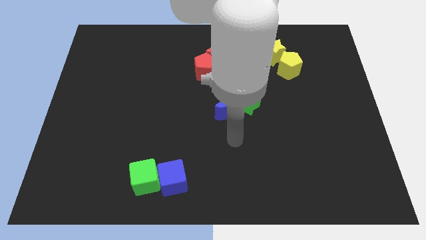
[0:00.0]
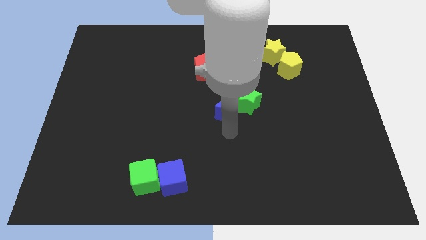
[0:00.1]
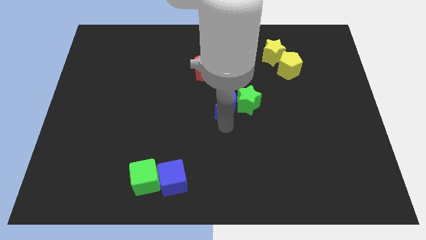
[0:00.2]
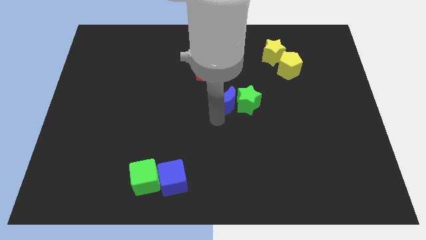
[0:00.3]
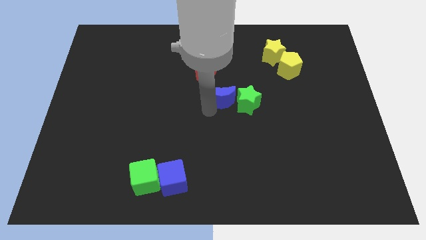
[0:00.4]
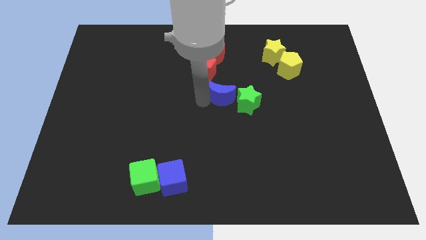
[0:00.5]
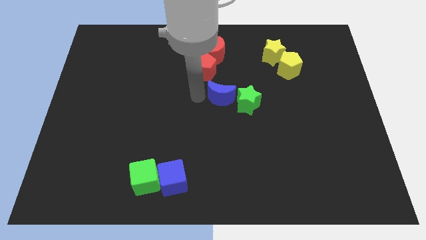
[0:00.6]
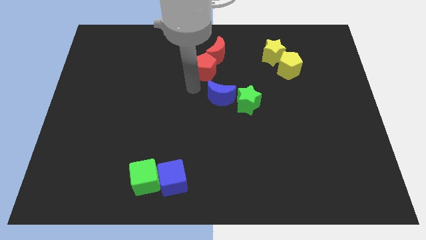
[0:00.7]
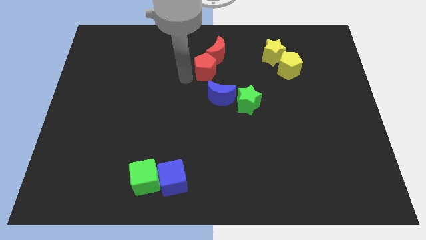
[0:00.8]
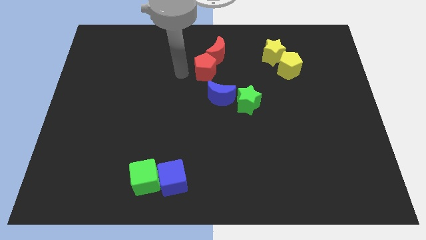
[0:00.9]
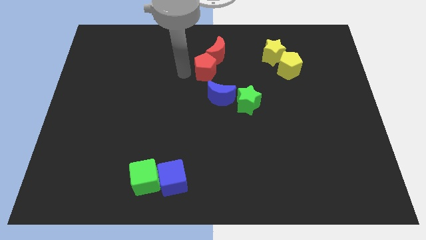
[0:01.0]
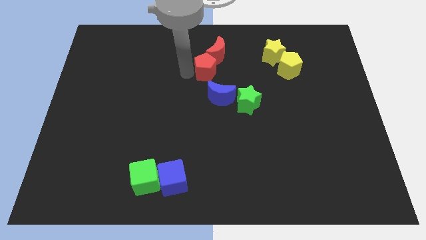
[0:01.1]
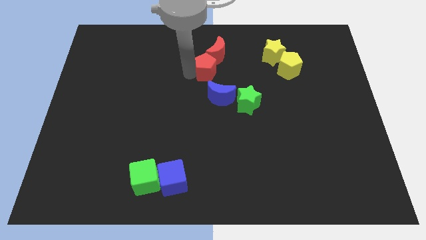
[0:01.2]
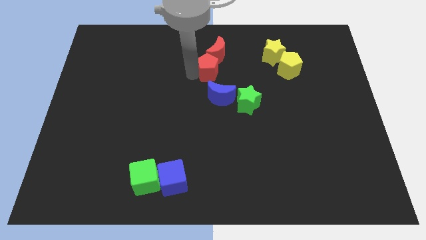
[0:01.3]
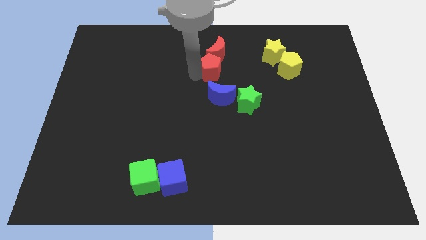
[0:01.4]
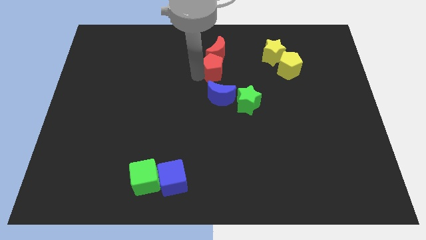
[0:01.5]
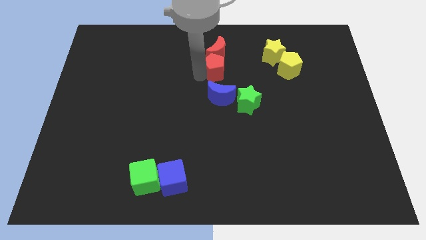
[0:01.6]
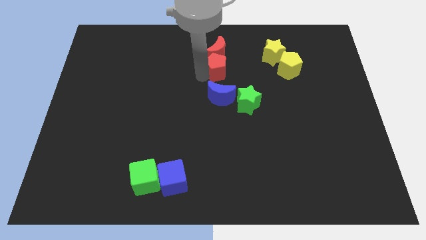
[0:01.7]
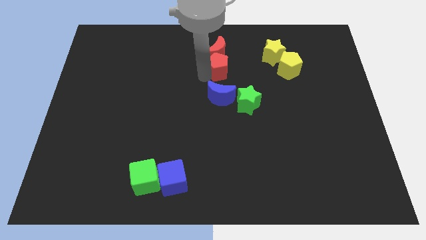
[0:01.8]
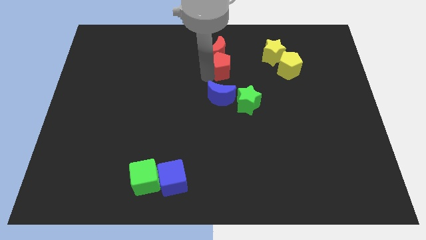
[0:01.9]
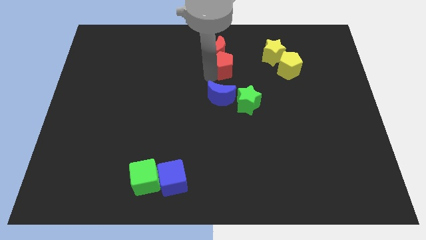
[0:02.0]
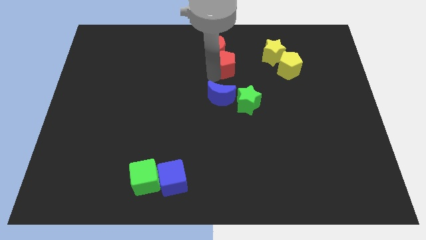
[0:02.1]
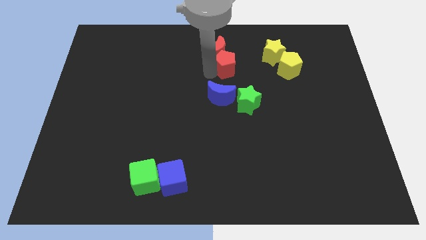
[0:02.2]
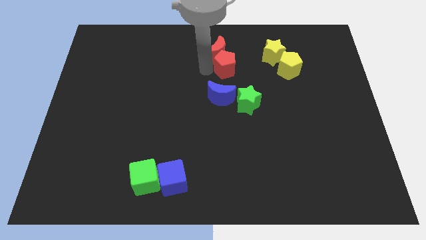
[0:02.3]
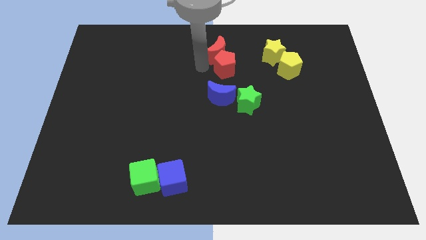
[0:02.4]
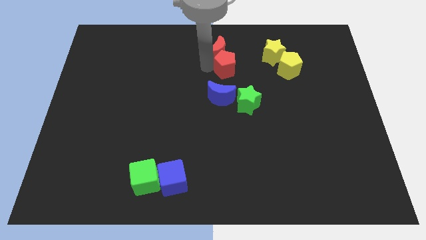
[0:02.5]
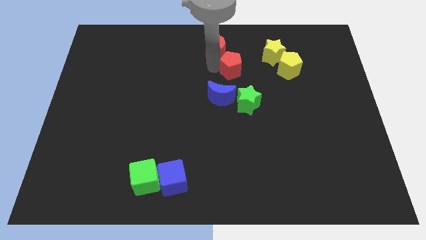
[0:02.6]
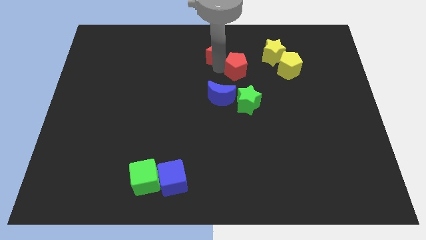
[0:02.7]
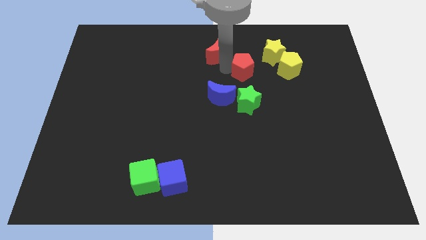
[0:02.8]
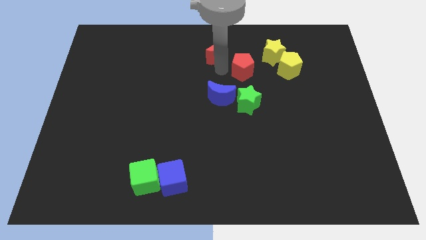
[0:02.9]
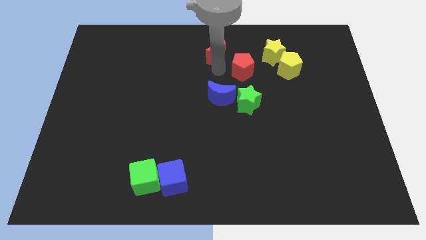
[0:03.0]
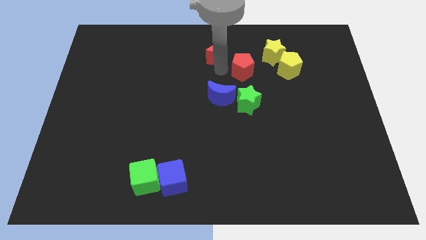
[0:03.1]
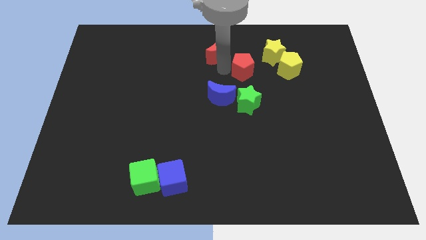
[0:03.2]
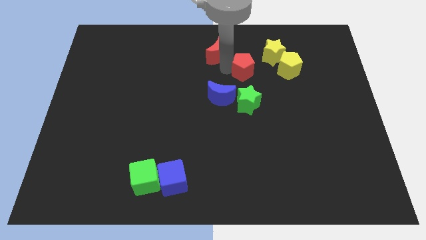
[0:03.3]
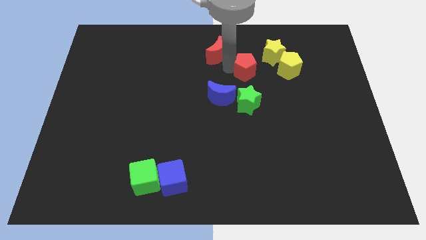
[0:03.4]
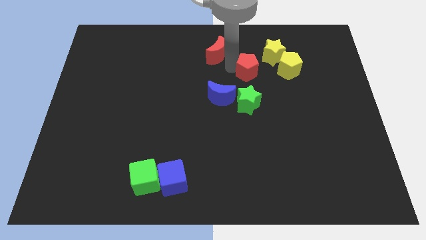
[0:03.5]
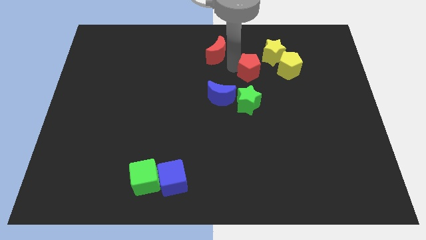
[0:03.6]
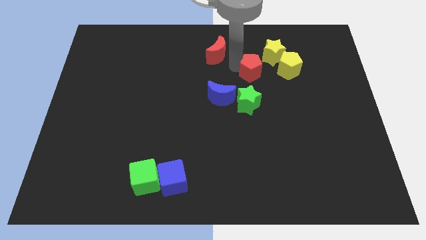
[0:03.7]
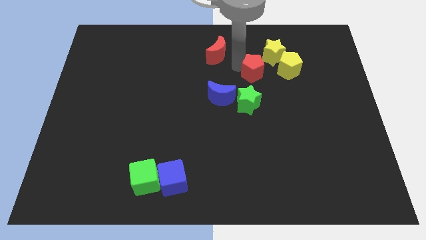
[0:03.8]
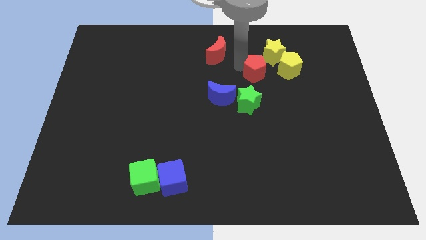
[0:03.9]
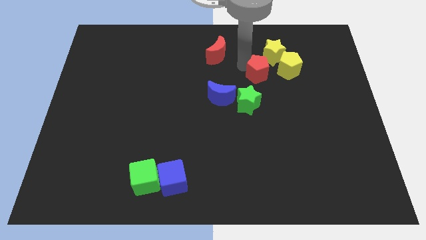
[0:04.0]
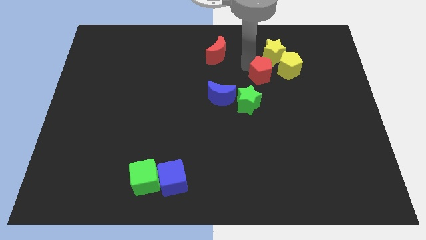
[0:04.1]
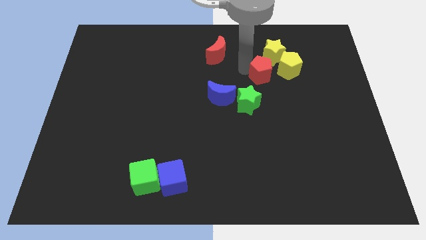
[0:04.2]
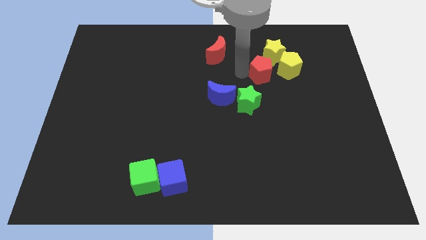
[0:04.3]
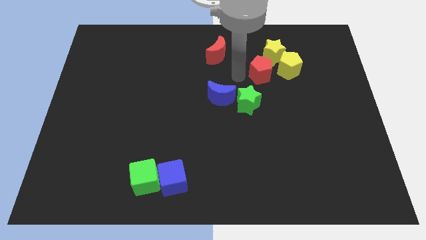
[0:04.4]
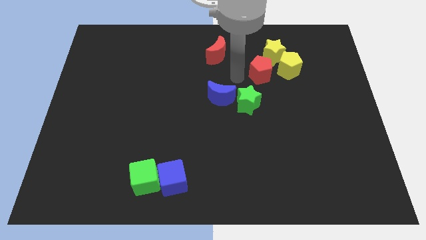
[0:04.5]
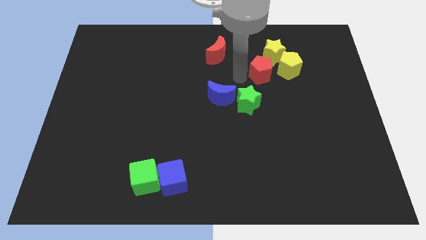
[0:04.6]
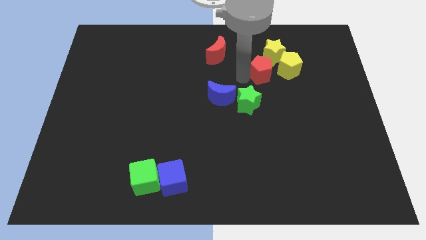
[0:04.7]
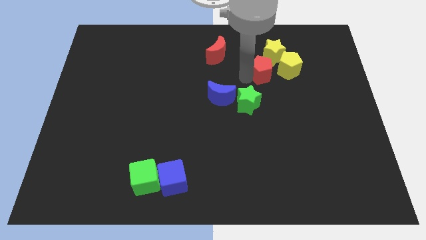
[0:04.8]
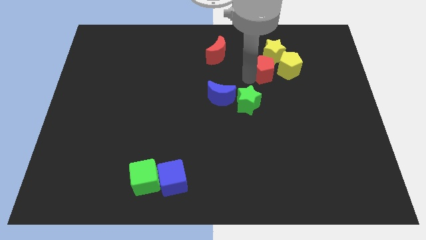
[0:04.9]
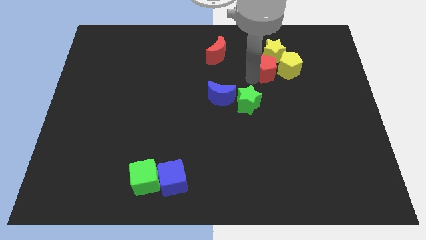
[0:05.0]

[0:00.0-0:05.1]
put the red pentagon towards the yellow pentagon

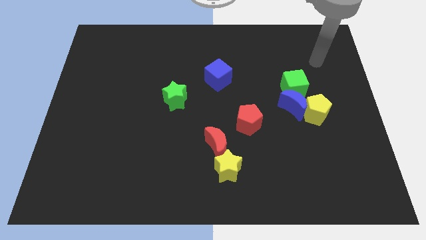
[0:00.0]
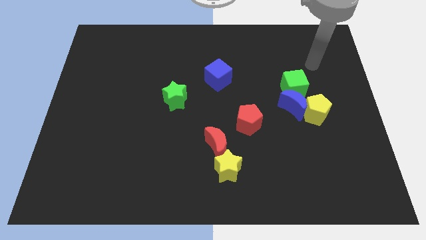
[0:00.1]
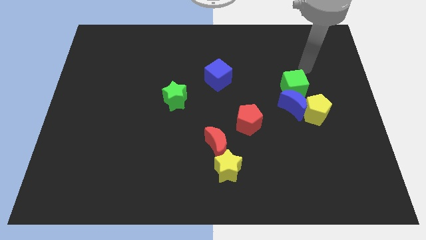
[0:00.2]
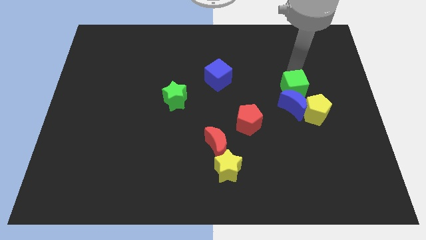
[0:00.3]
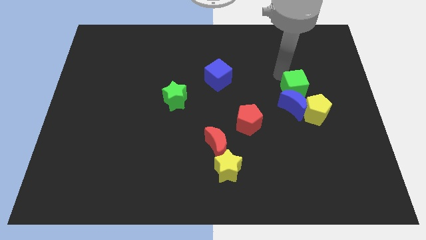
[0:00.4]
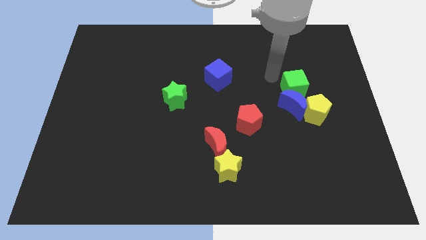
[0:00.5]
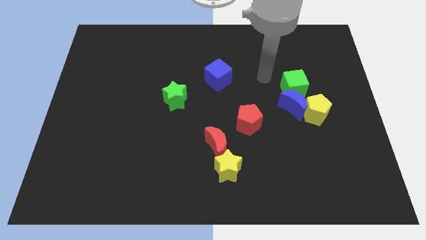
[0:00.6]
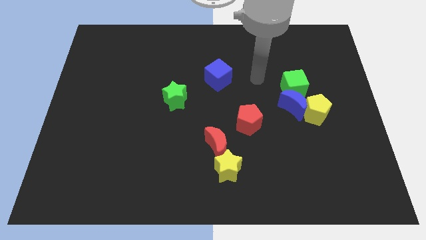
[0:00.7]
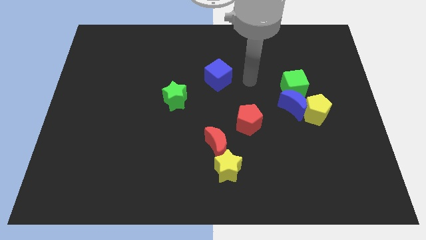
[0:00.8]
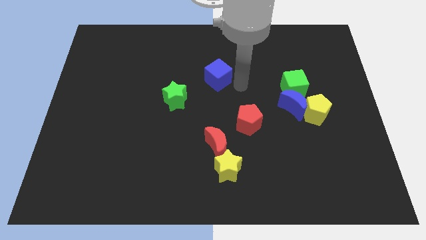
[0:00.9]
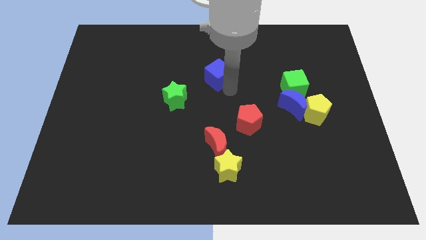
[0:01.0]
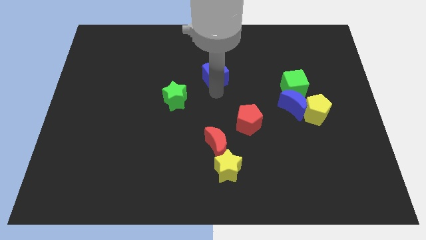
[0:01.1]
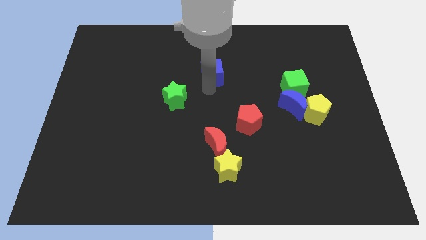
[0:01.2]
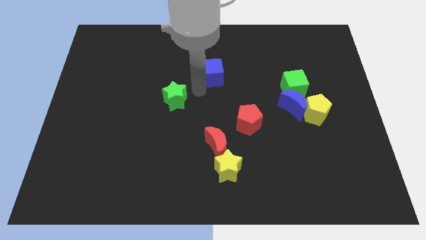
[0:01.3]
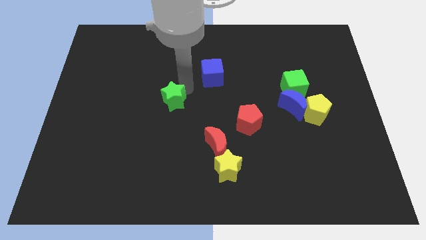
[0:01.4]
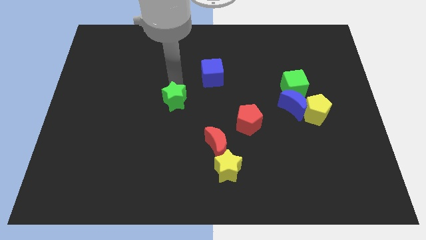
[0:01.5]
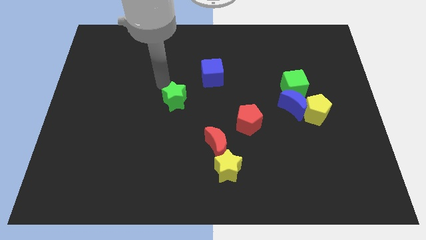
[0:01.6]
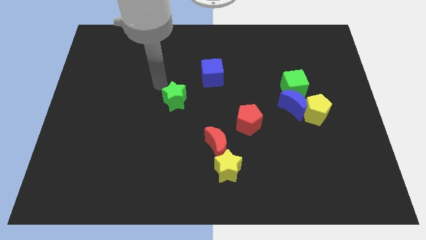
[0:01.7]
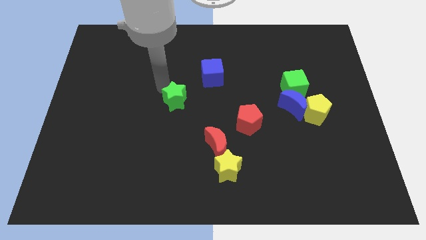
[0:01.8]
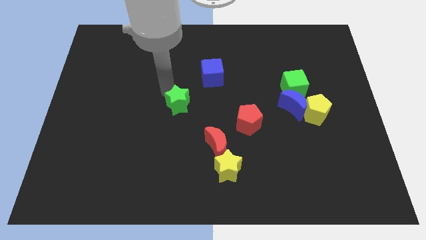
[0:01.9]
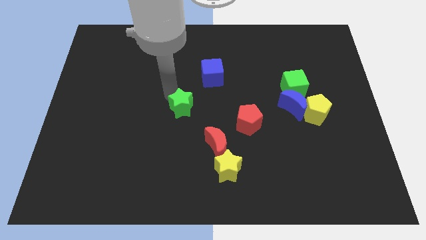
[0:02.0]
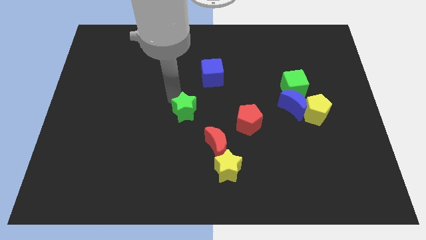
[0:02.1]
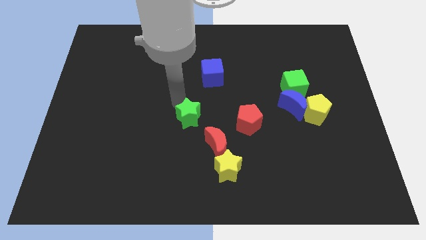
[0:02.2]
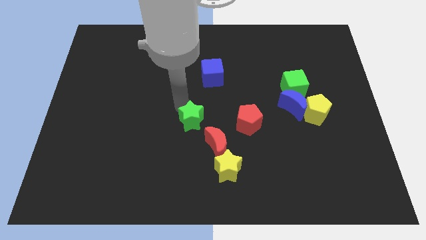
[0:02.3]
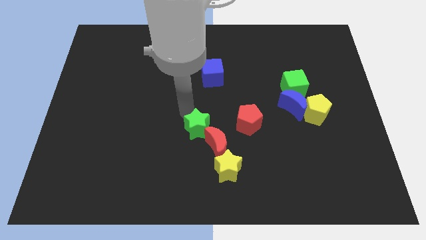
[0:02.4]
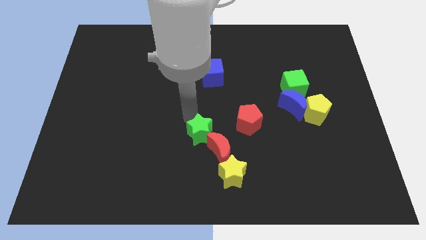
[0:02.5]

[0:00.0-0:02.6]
move the green star close to the red moon
